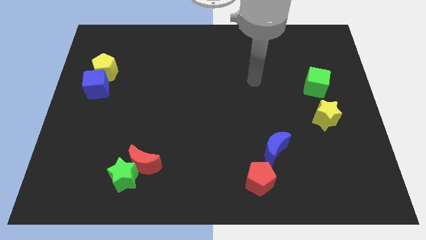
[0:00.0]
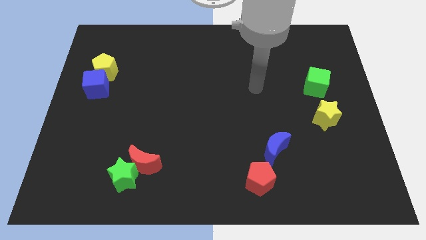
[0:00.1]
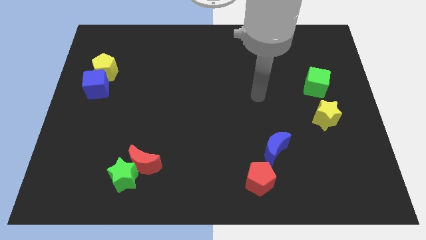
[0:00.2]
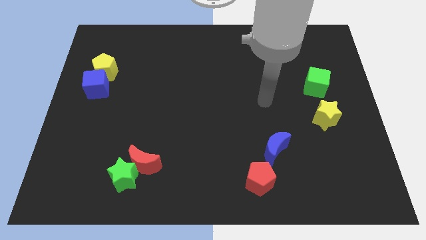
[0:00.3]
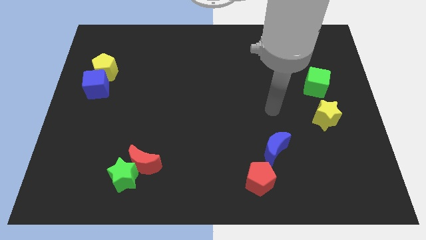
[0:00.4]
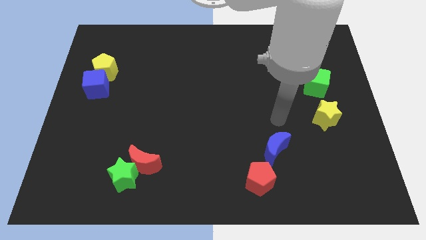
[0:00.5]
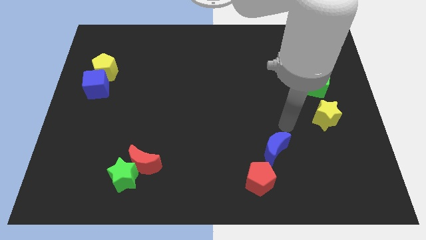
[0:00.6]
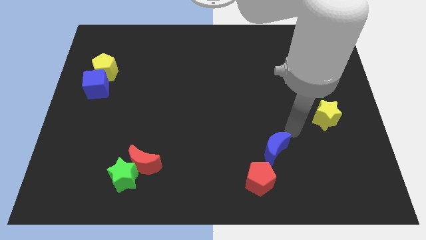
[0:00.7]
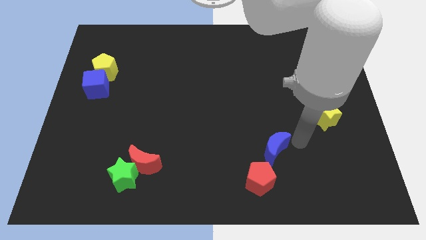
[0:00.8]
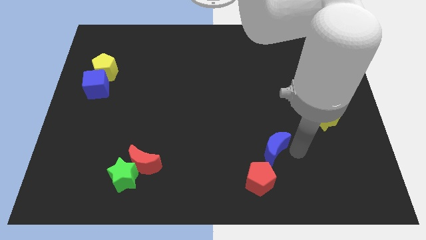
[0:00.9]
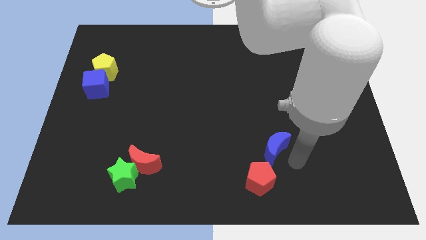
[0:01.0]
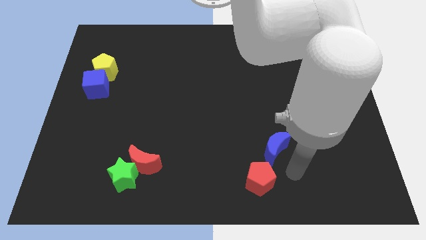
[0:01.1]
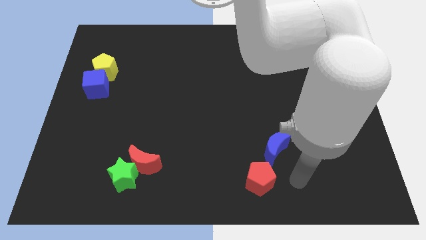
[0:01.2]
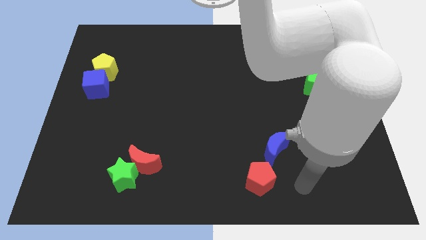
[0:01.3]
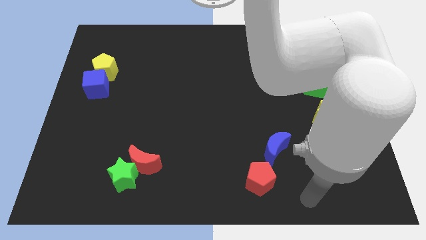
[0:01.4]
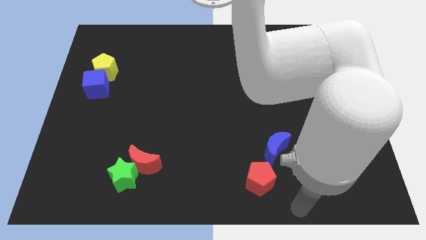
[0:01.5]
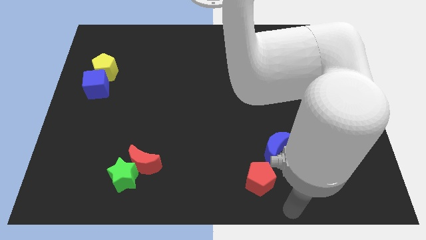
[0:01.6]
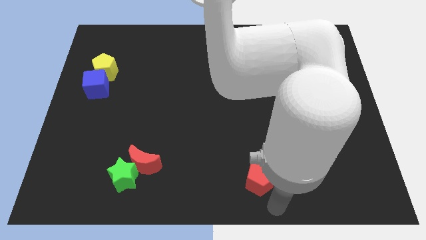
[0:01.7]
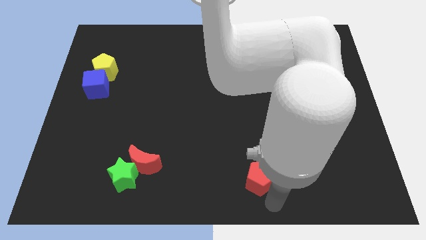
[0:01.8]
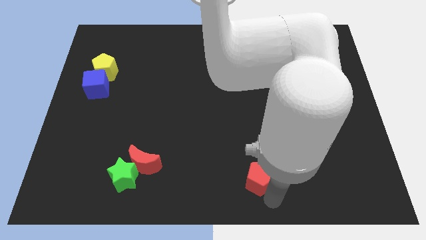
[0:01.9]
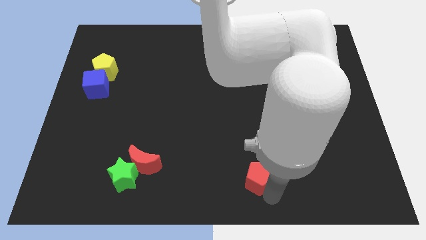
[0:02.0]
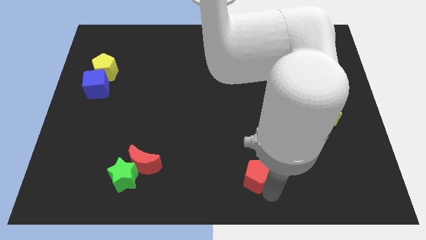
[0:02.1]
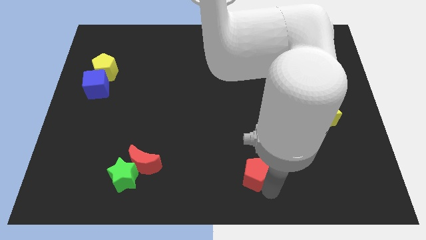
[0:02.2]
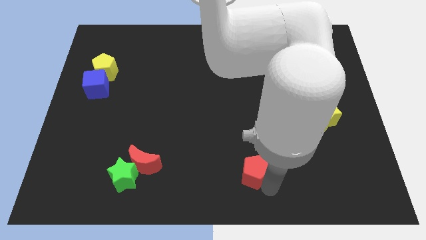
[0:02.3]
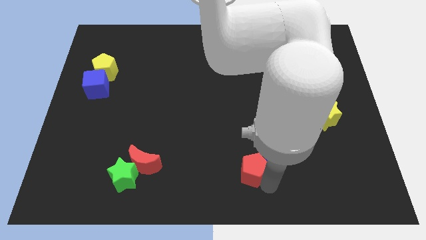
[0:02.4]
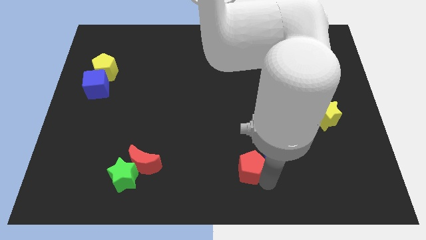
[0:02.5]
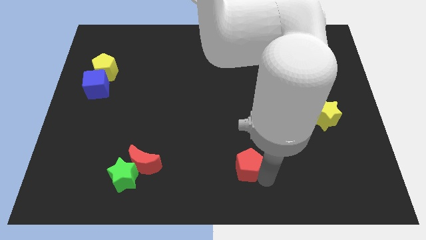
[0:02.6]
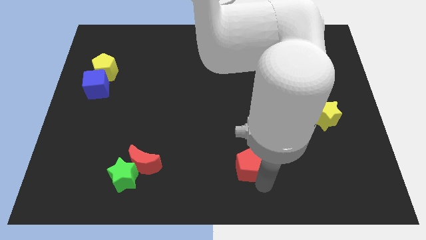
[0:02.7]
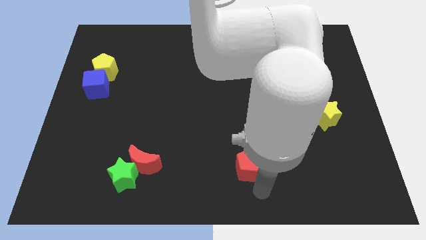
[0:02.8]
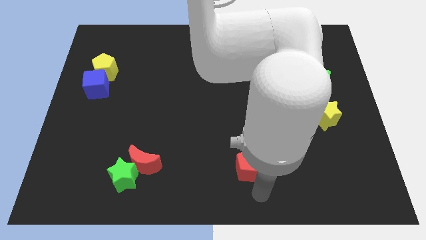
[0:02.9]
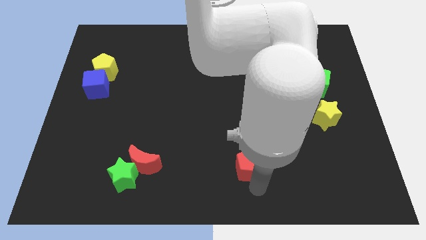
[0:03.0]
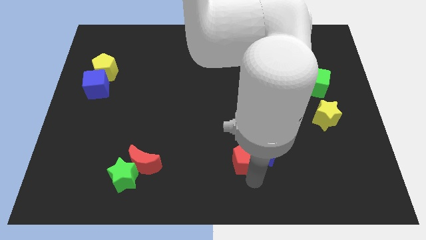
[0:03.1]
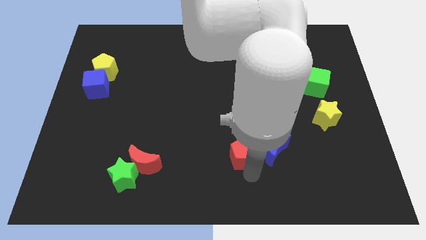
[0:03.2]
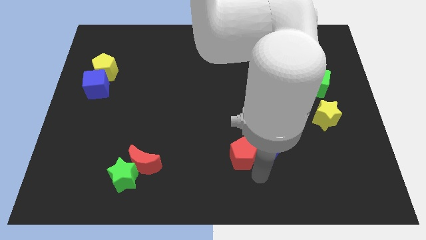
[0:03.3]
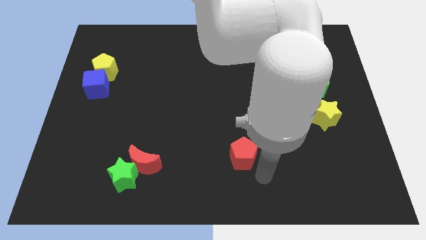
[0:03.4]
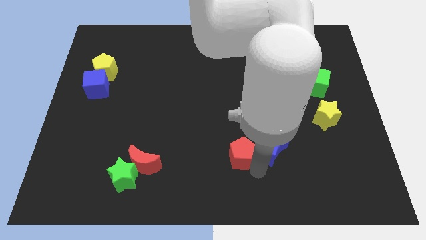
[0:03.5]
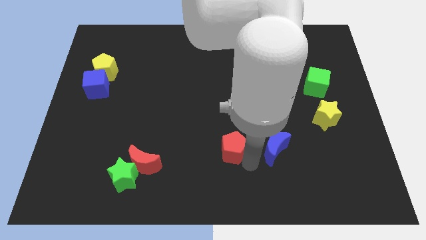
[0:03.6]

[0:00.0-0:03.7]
move the red pentagon upwards and then left somewhat

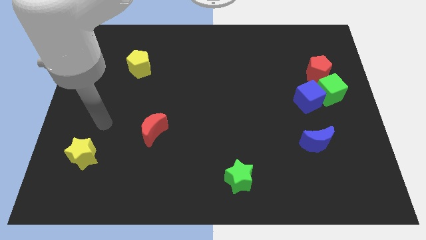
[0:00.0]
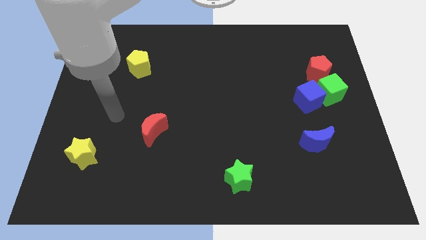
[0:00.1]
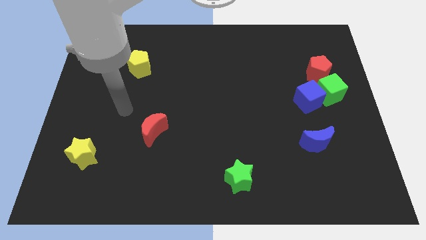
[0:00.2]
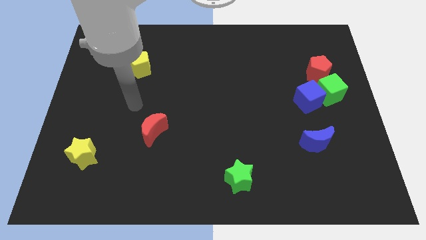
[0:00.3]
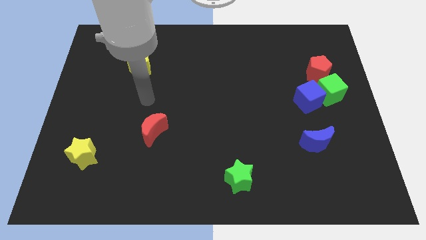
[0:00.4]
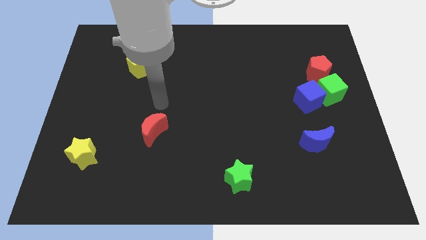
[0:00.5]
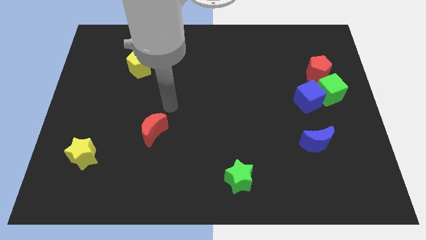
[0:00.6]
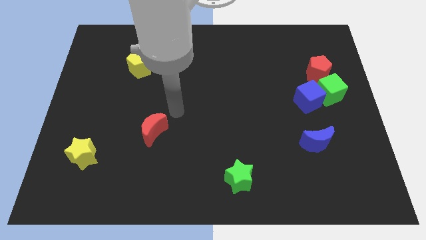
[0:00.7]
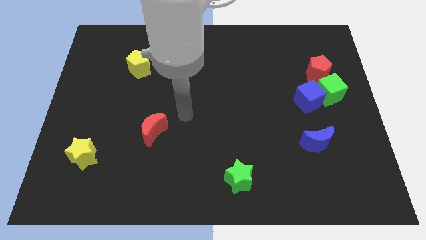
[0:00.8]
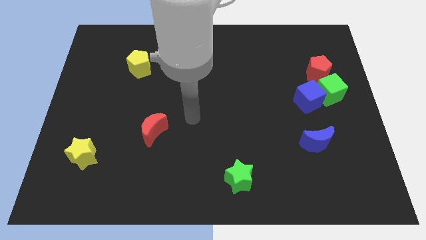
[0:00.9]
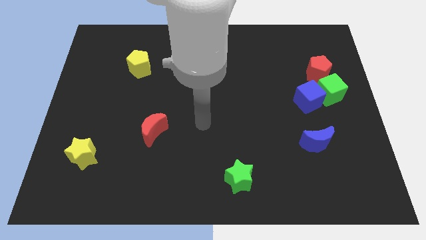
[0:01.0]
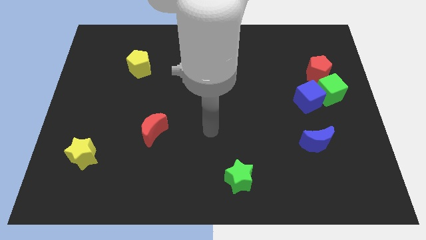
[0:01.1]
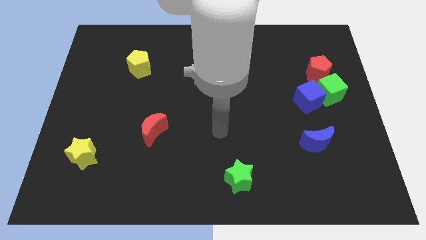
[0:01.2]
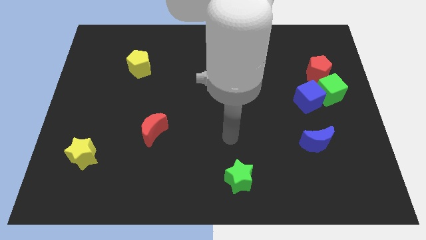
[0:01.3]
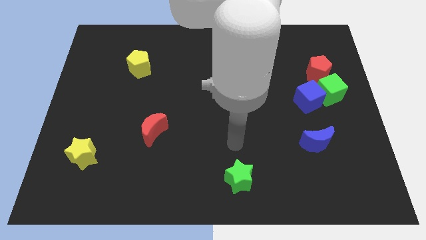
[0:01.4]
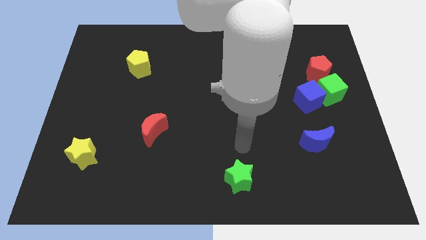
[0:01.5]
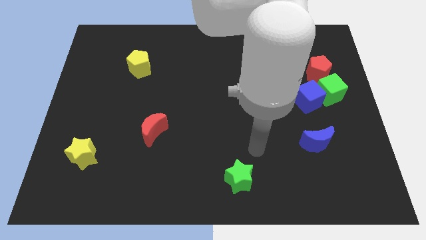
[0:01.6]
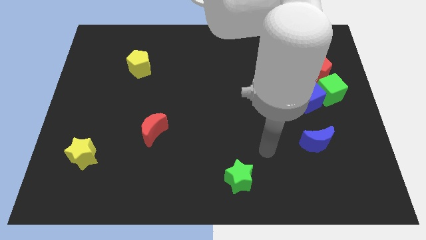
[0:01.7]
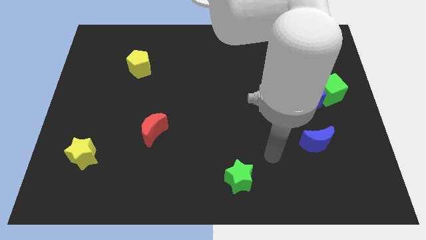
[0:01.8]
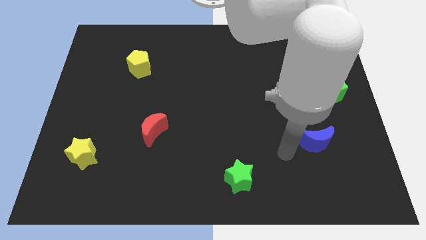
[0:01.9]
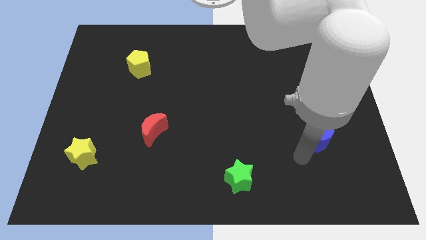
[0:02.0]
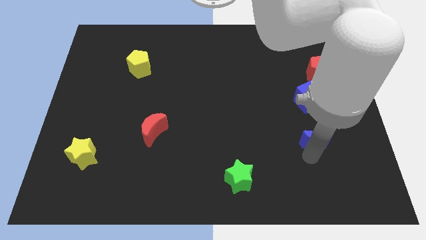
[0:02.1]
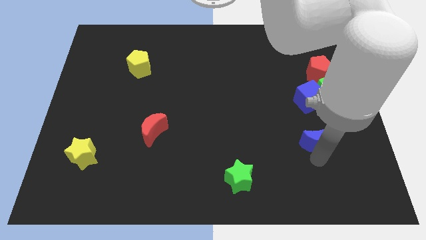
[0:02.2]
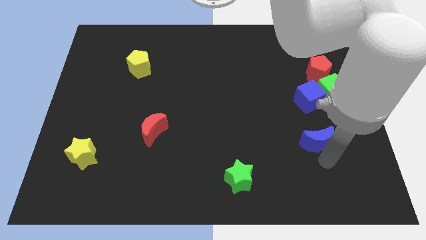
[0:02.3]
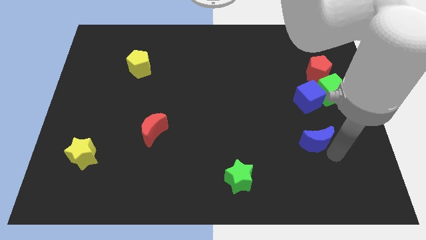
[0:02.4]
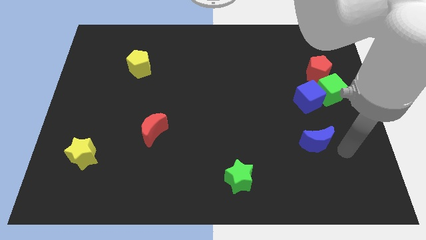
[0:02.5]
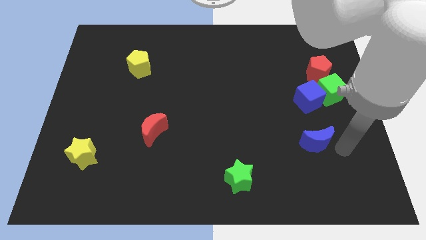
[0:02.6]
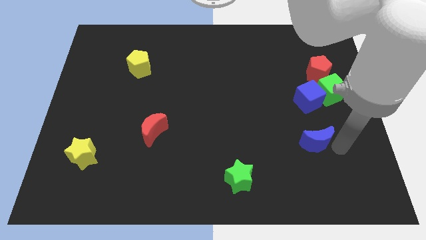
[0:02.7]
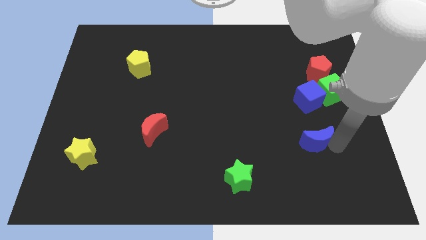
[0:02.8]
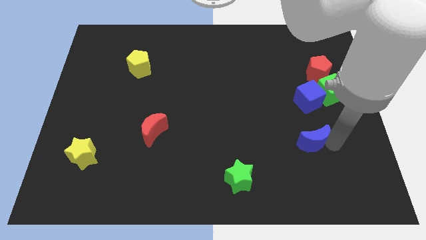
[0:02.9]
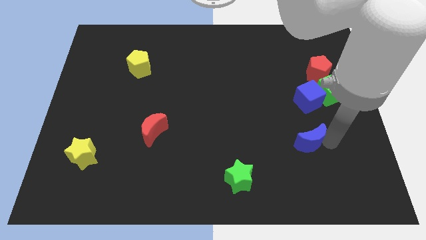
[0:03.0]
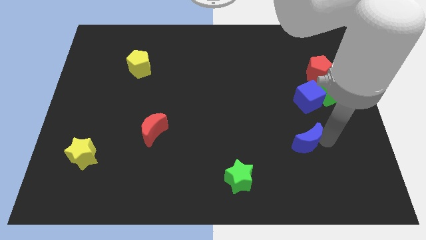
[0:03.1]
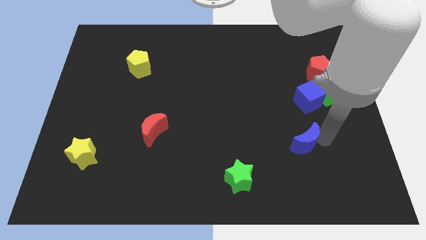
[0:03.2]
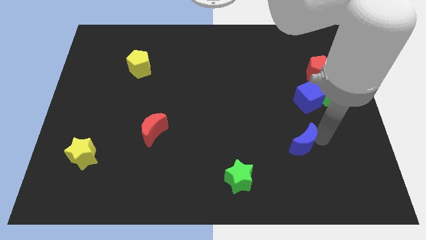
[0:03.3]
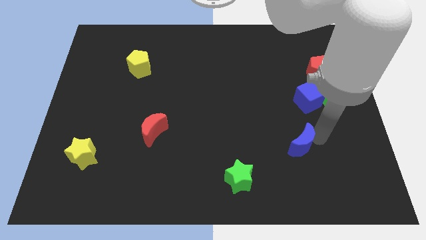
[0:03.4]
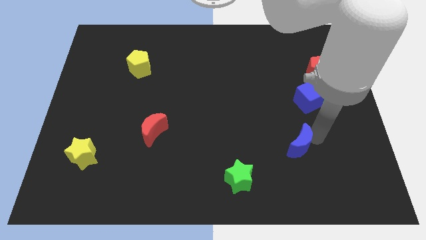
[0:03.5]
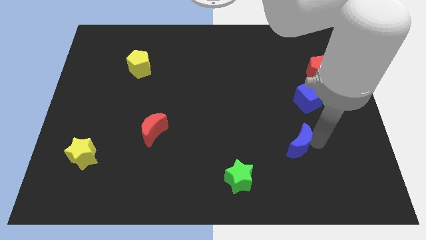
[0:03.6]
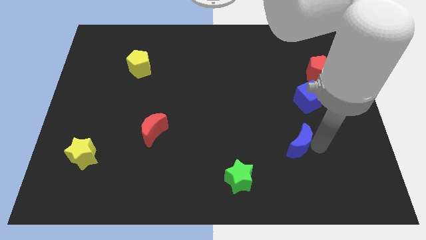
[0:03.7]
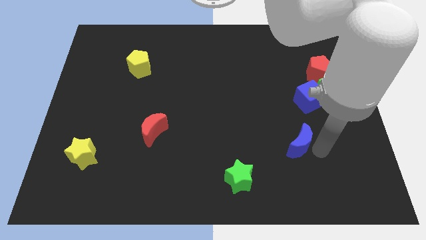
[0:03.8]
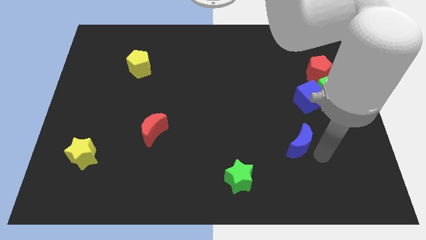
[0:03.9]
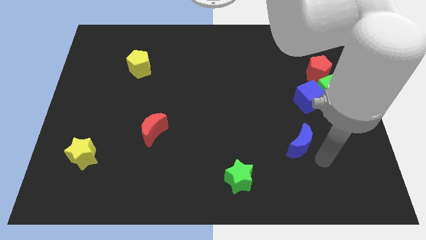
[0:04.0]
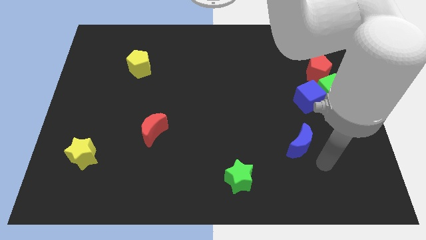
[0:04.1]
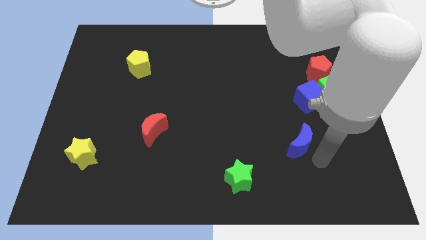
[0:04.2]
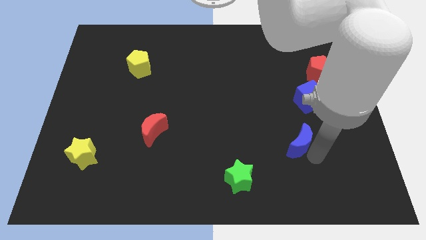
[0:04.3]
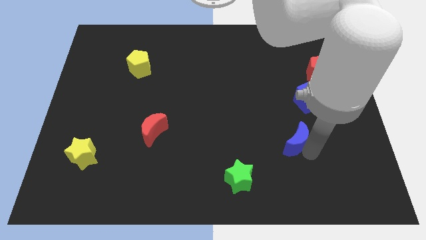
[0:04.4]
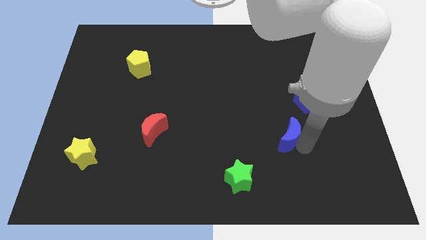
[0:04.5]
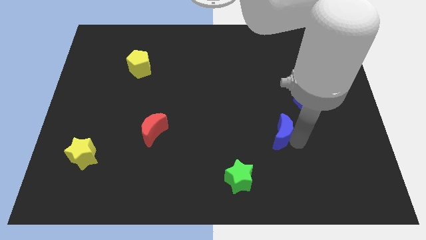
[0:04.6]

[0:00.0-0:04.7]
slightly move the blue moon left
